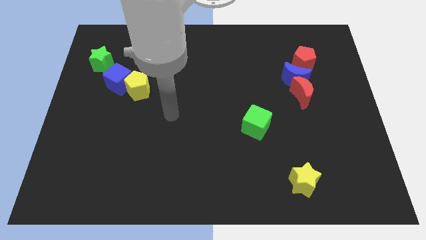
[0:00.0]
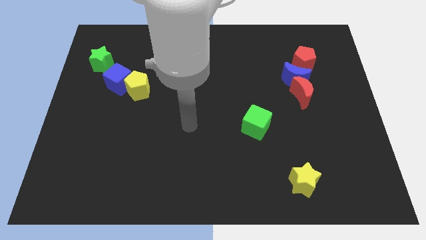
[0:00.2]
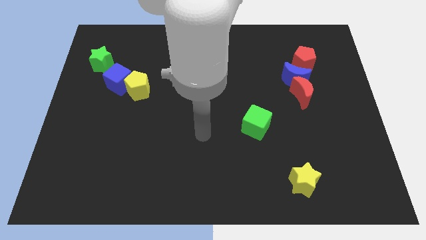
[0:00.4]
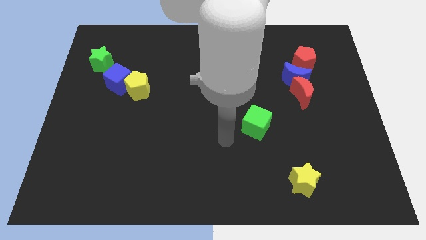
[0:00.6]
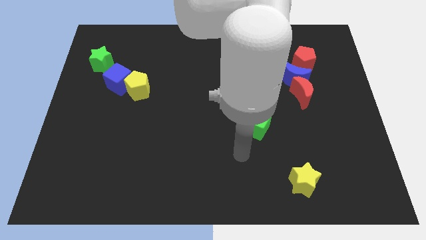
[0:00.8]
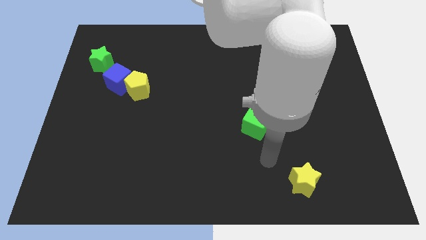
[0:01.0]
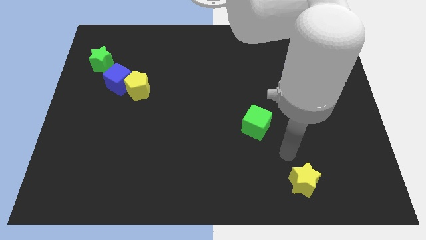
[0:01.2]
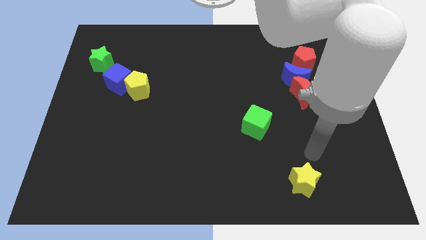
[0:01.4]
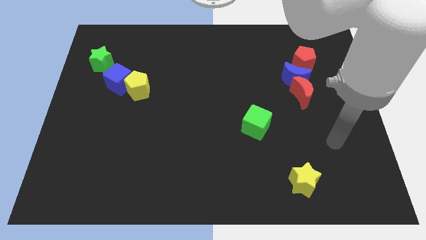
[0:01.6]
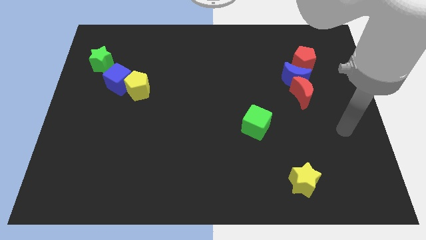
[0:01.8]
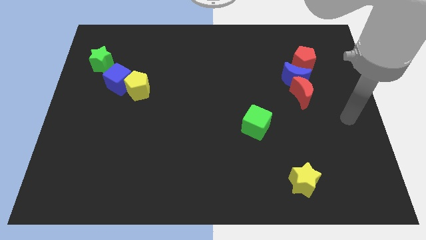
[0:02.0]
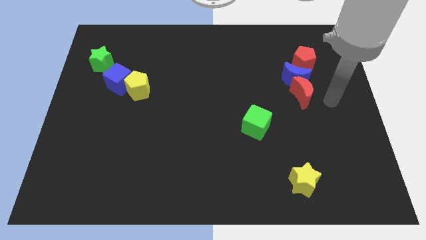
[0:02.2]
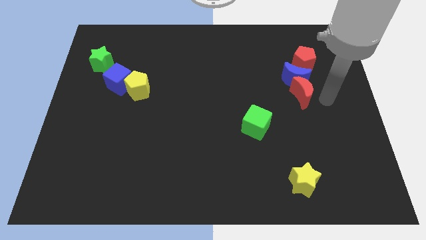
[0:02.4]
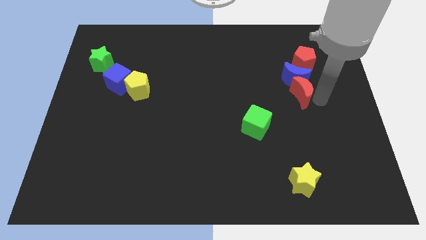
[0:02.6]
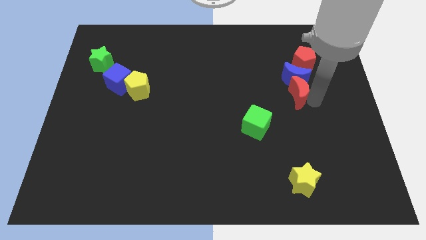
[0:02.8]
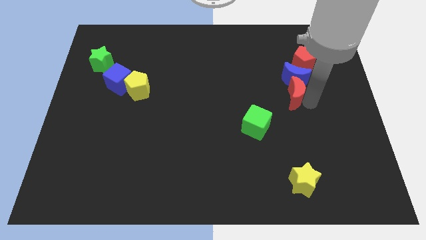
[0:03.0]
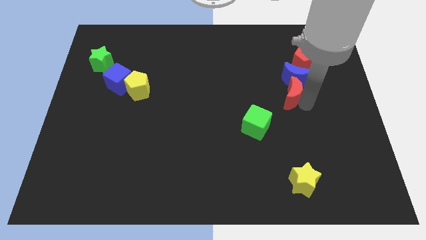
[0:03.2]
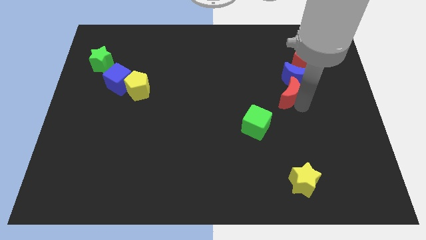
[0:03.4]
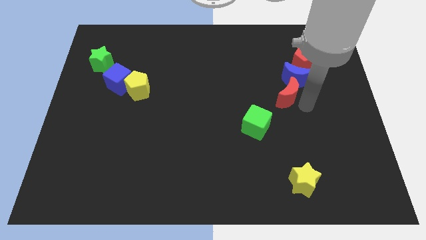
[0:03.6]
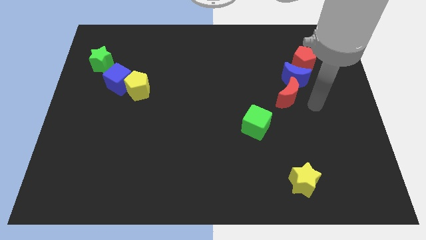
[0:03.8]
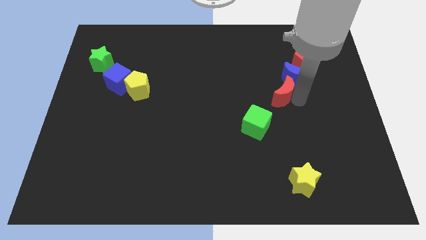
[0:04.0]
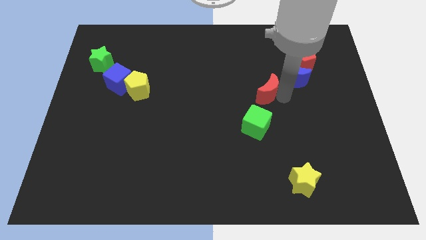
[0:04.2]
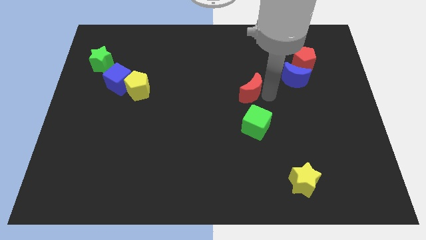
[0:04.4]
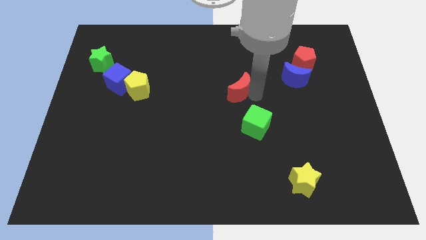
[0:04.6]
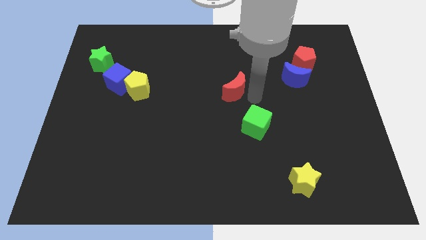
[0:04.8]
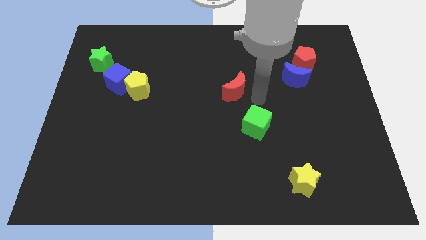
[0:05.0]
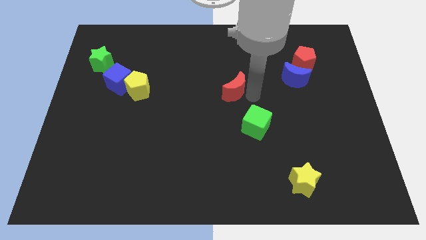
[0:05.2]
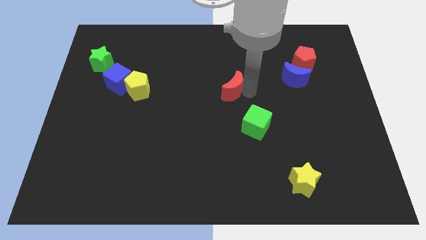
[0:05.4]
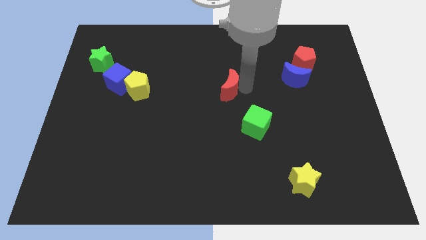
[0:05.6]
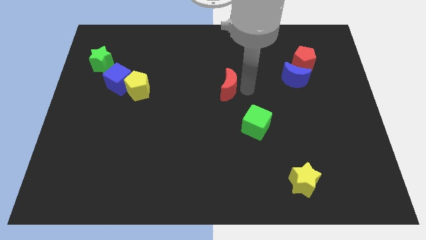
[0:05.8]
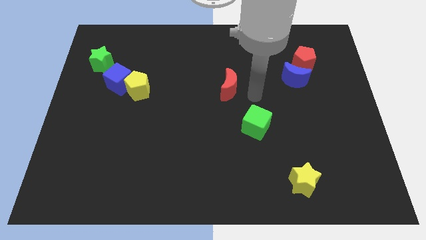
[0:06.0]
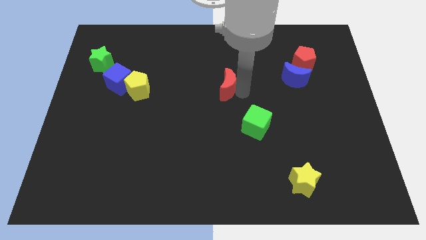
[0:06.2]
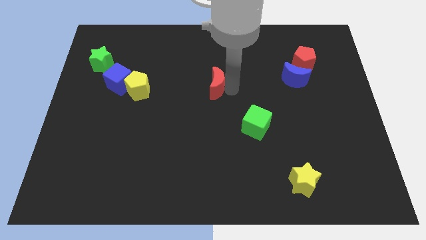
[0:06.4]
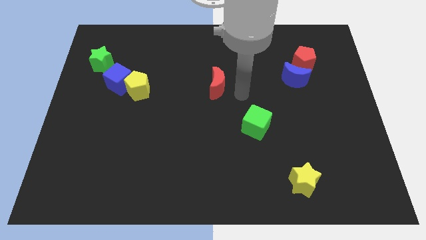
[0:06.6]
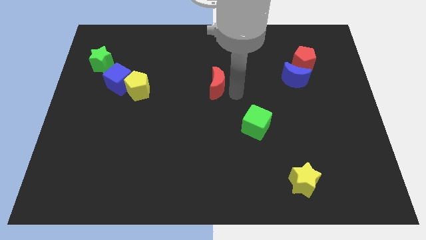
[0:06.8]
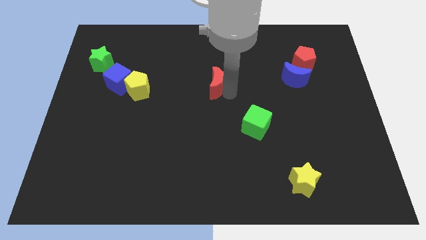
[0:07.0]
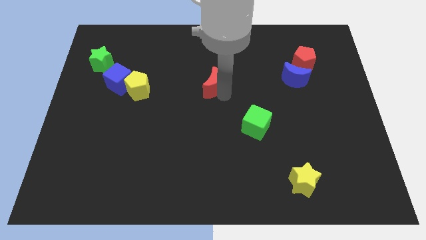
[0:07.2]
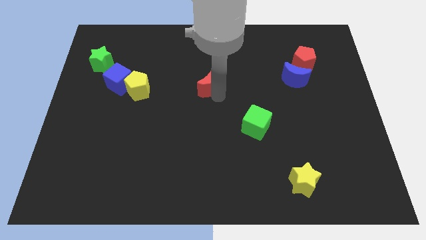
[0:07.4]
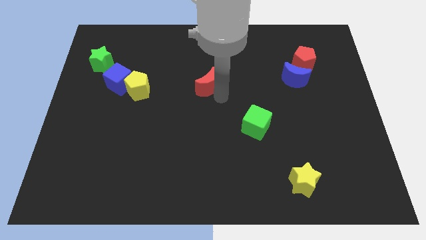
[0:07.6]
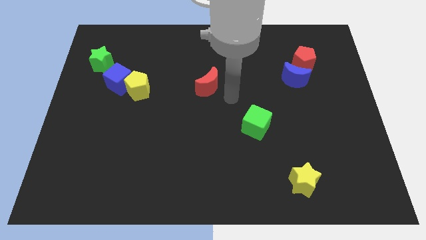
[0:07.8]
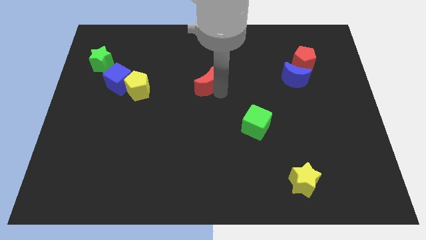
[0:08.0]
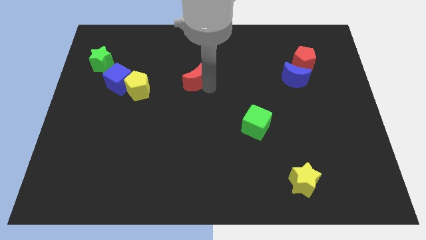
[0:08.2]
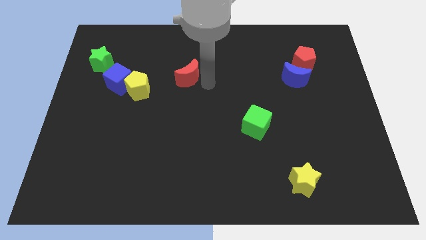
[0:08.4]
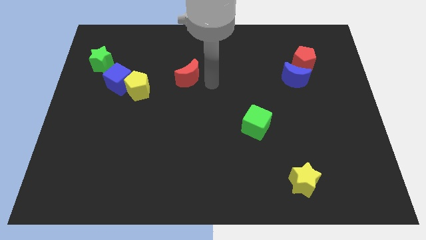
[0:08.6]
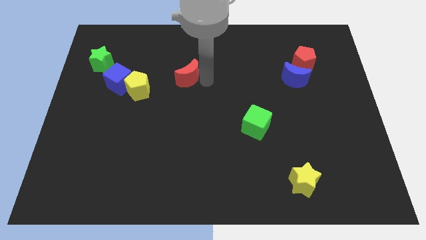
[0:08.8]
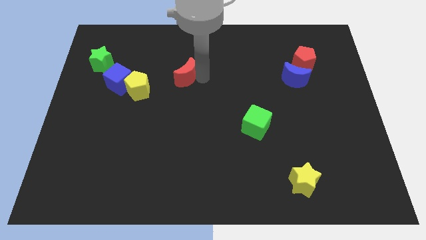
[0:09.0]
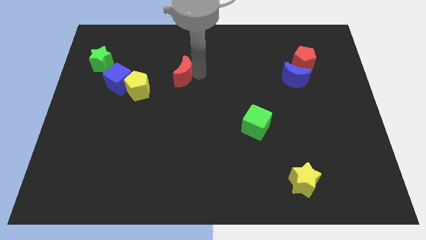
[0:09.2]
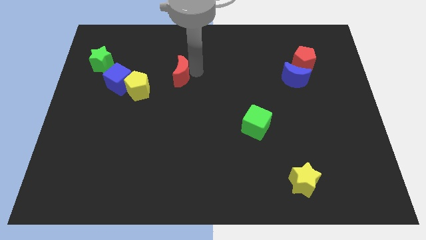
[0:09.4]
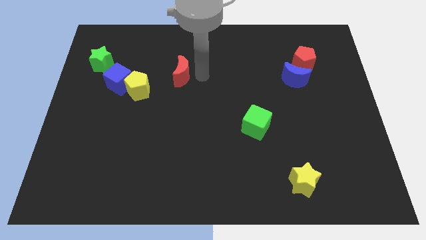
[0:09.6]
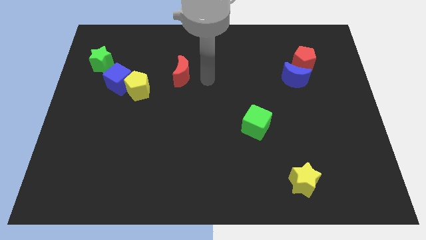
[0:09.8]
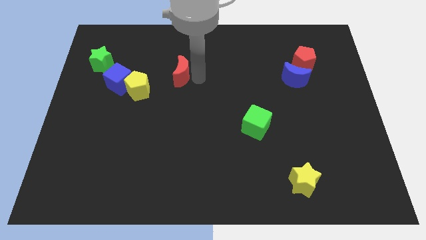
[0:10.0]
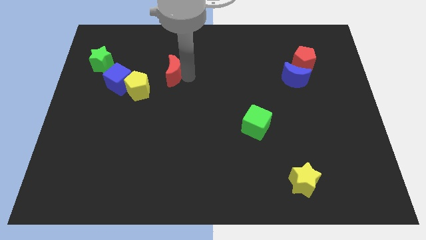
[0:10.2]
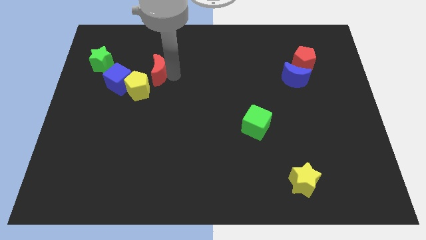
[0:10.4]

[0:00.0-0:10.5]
push the red moon diagonally up and to the right of the blue cube

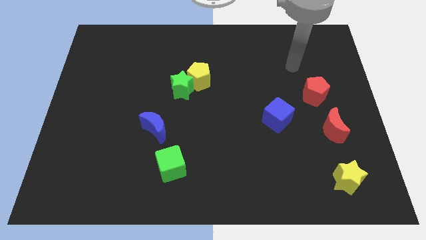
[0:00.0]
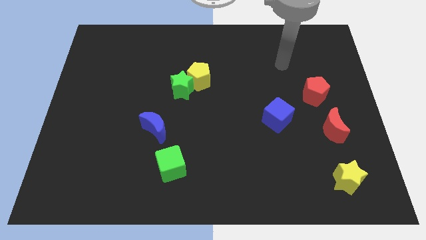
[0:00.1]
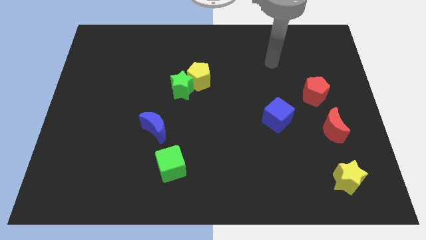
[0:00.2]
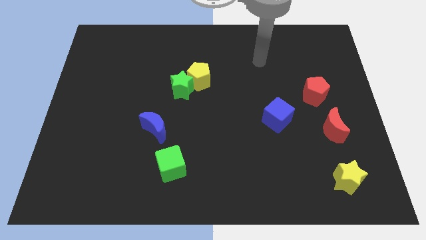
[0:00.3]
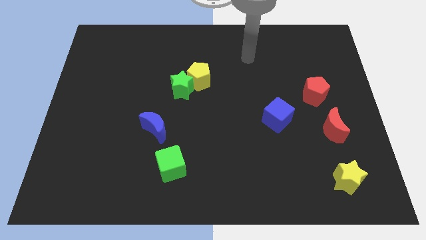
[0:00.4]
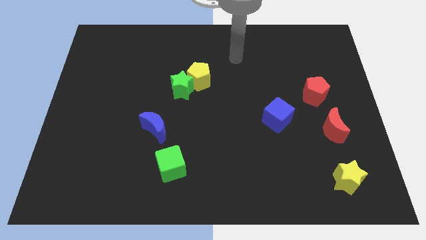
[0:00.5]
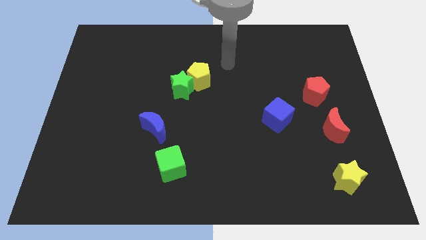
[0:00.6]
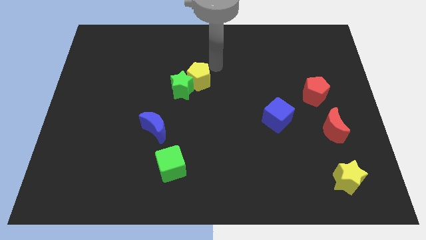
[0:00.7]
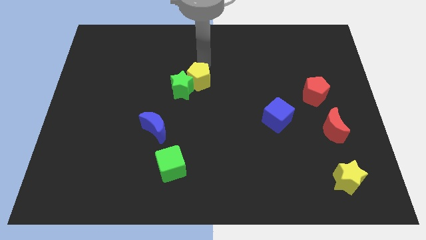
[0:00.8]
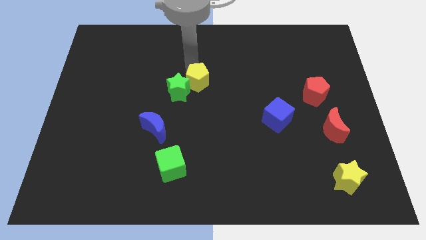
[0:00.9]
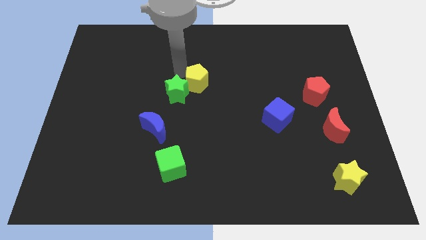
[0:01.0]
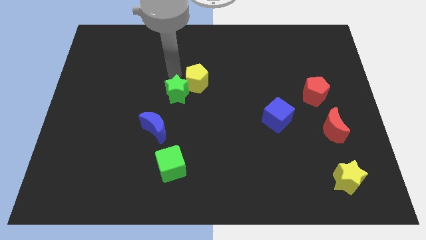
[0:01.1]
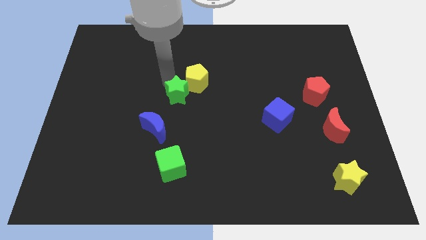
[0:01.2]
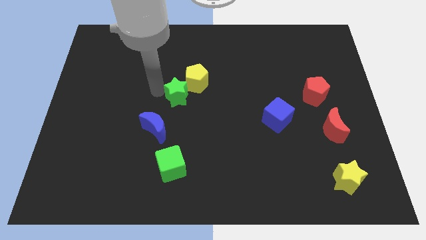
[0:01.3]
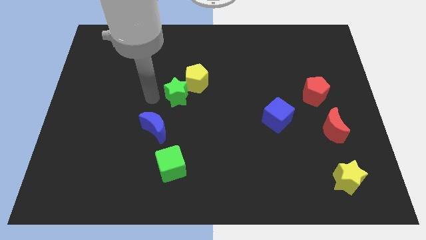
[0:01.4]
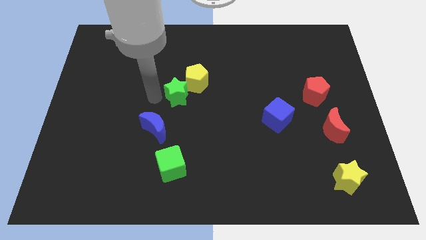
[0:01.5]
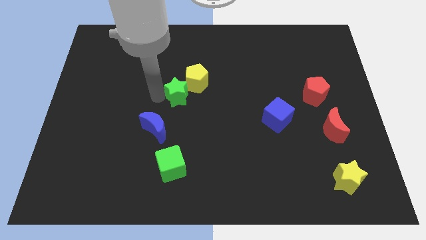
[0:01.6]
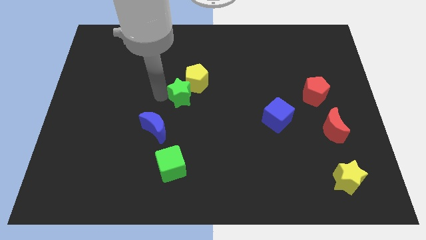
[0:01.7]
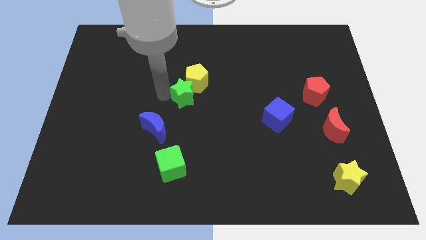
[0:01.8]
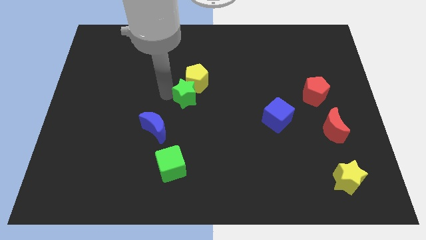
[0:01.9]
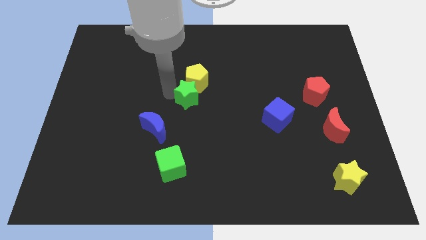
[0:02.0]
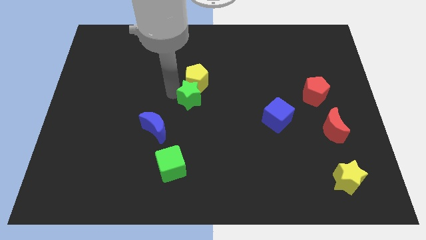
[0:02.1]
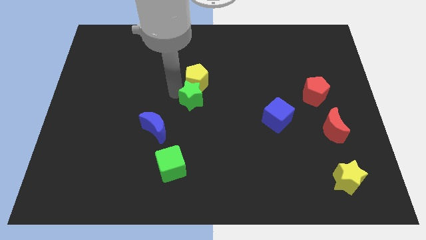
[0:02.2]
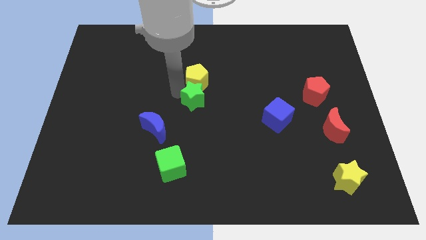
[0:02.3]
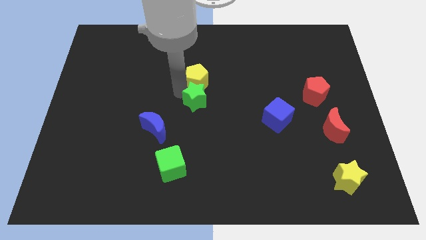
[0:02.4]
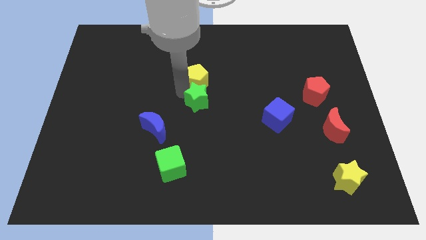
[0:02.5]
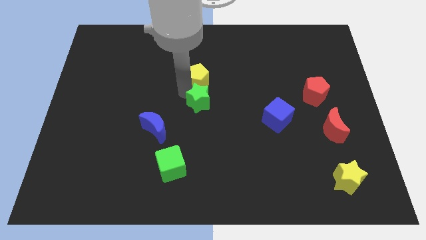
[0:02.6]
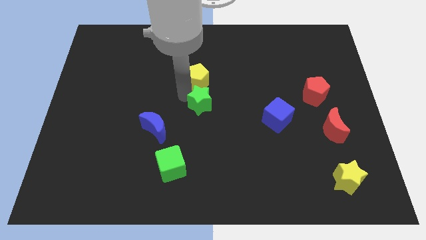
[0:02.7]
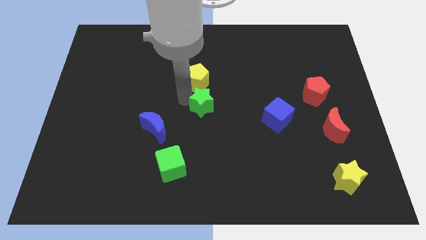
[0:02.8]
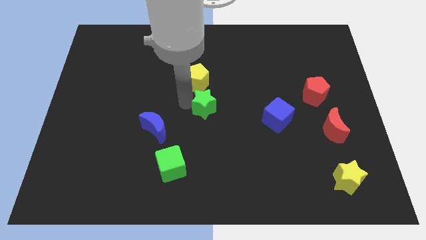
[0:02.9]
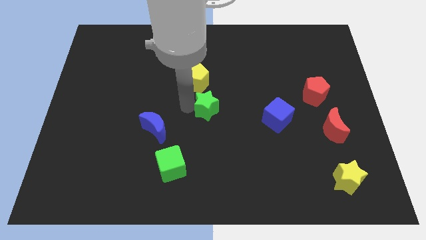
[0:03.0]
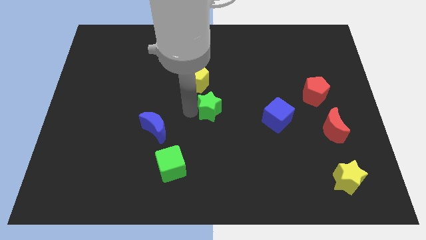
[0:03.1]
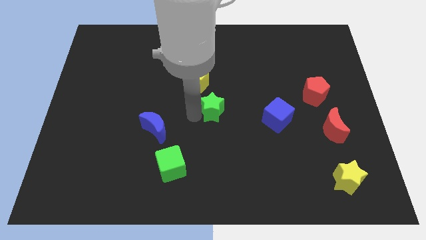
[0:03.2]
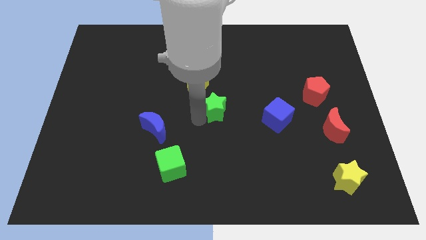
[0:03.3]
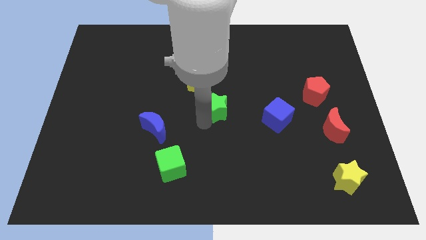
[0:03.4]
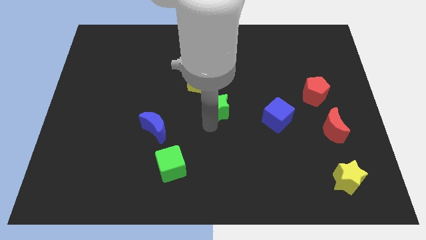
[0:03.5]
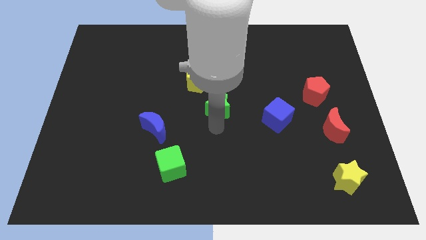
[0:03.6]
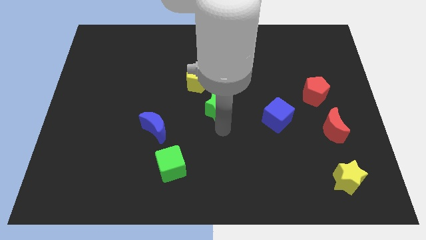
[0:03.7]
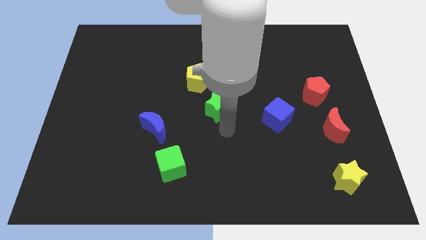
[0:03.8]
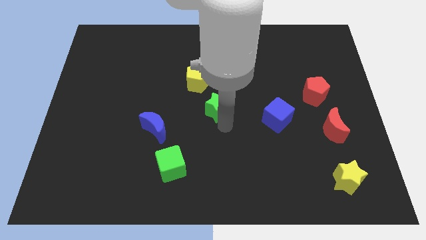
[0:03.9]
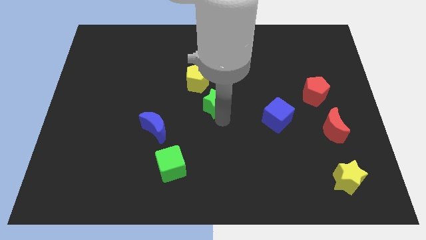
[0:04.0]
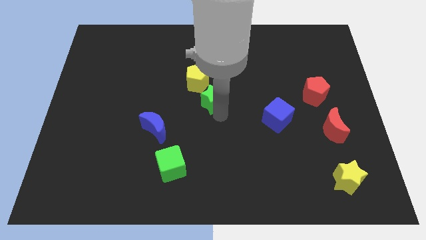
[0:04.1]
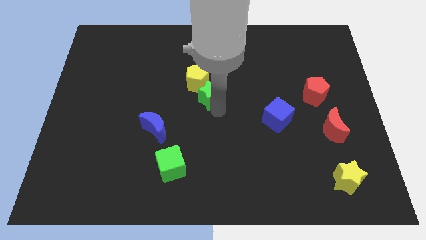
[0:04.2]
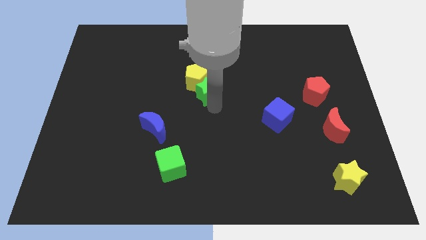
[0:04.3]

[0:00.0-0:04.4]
slide the green star just right of the yellow pentagon
